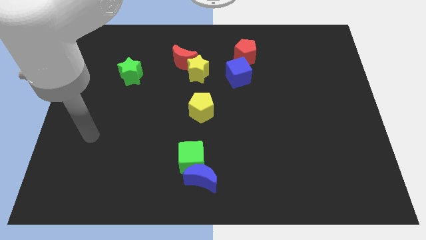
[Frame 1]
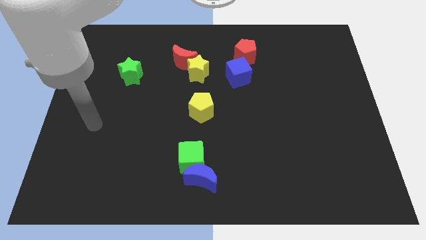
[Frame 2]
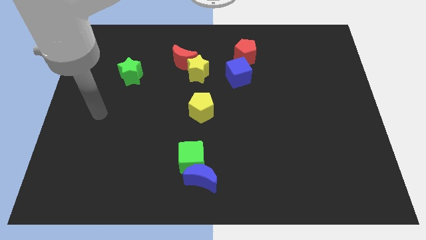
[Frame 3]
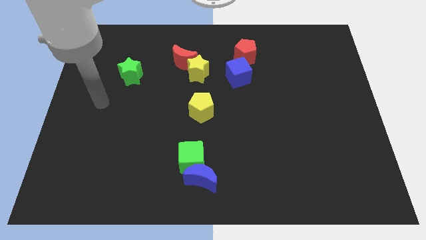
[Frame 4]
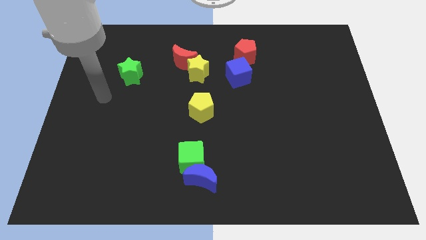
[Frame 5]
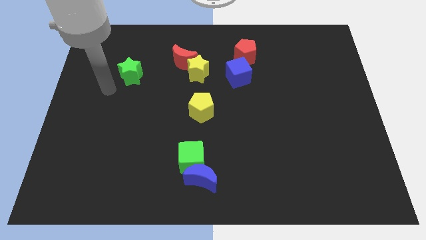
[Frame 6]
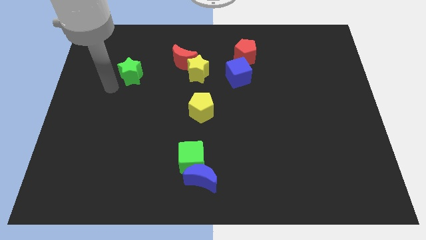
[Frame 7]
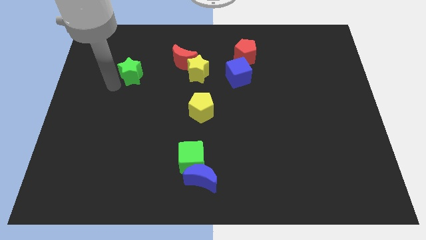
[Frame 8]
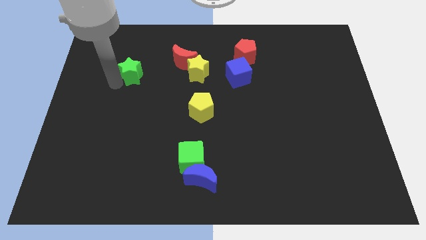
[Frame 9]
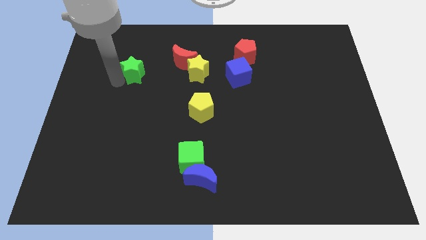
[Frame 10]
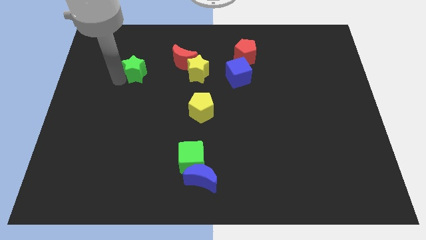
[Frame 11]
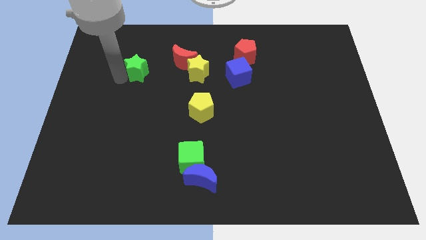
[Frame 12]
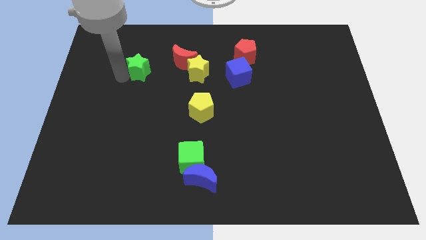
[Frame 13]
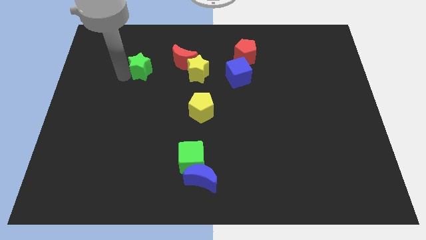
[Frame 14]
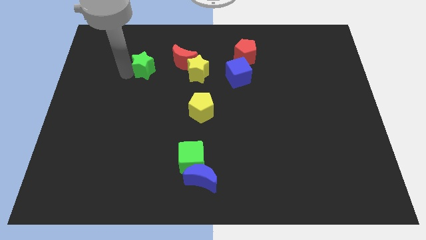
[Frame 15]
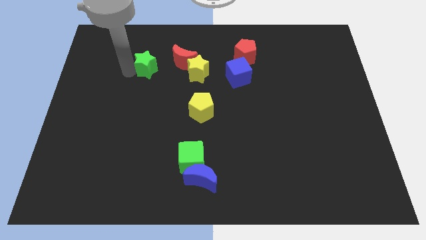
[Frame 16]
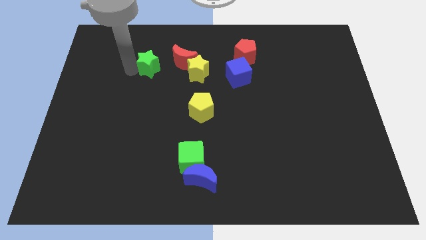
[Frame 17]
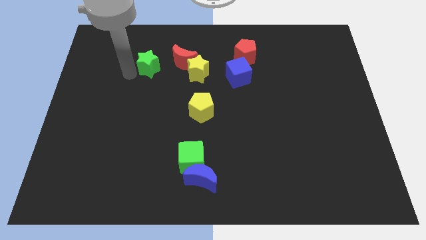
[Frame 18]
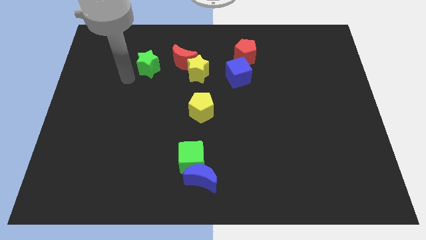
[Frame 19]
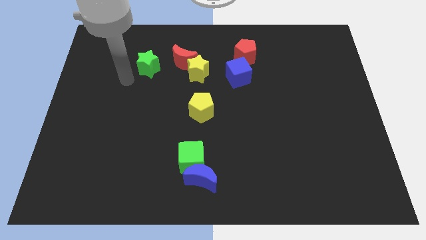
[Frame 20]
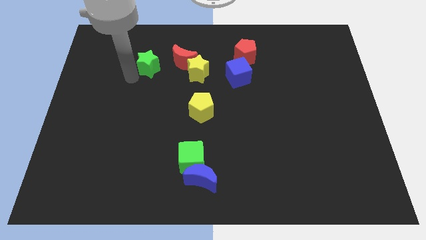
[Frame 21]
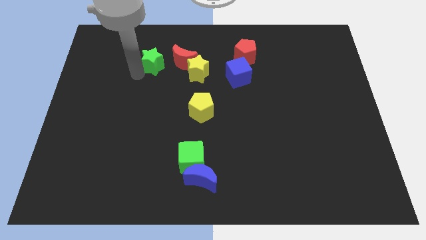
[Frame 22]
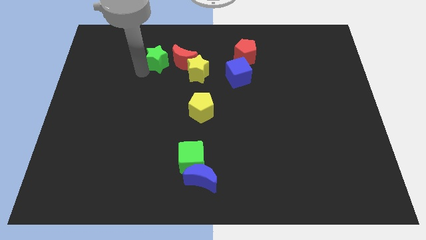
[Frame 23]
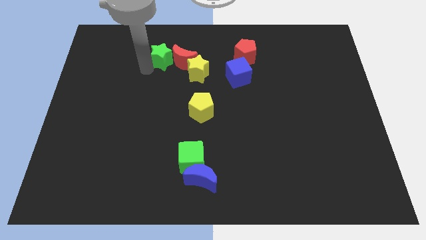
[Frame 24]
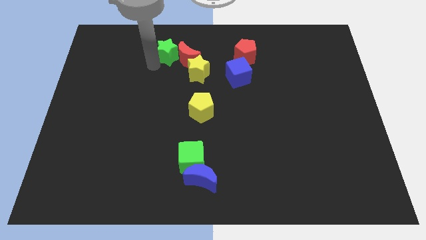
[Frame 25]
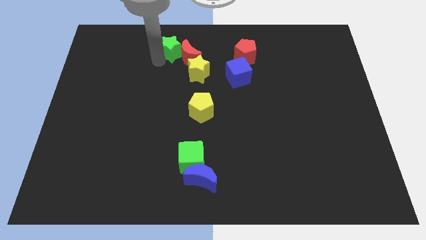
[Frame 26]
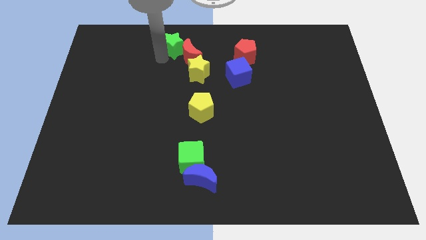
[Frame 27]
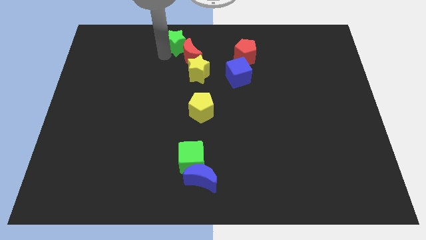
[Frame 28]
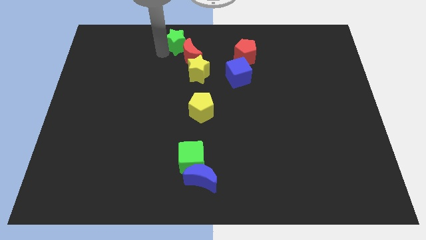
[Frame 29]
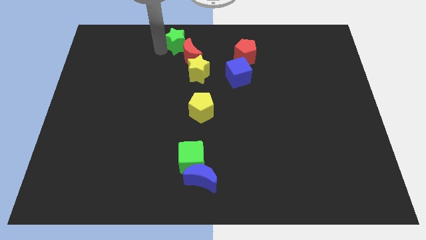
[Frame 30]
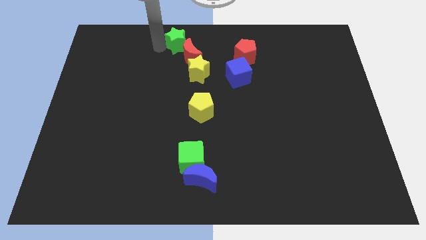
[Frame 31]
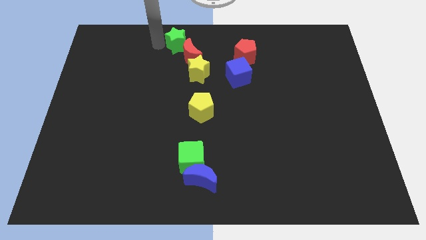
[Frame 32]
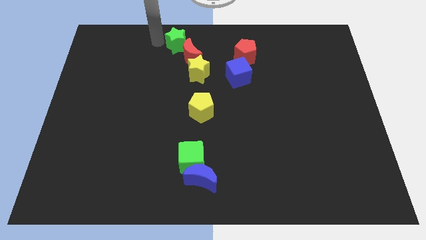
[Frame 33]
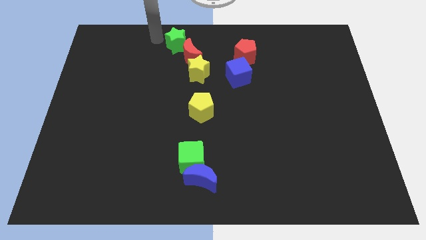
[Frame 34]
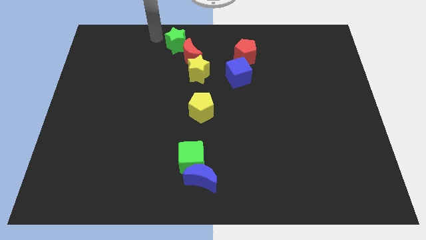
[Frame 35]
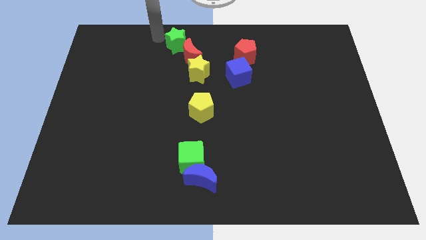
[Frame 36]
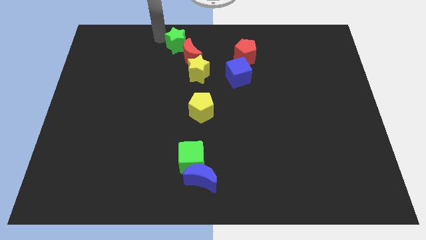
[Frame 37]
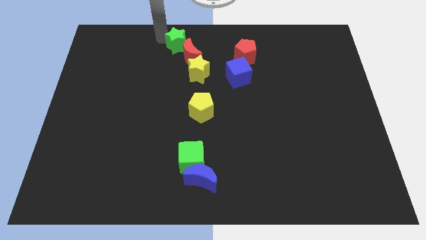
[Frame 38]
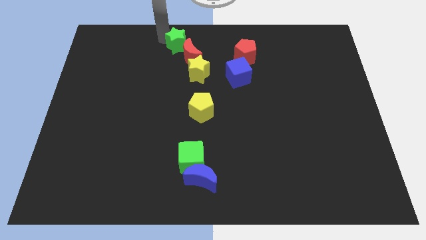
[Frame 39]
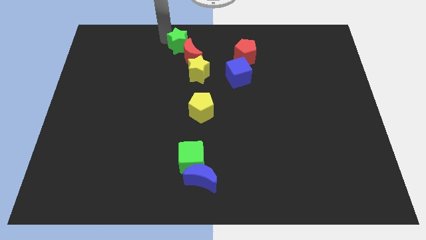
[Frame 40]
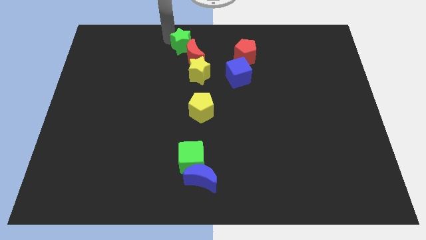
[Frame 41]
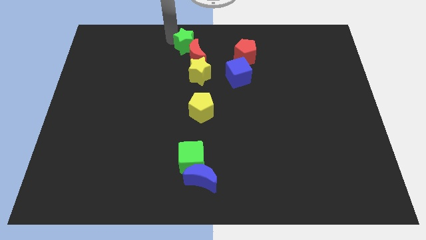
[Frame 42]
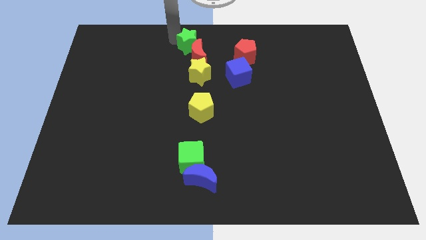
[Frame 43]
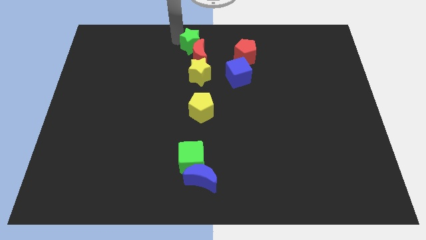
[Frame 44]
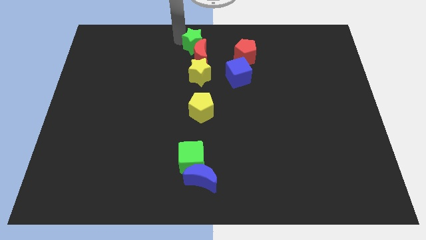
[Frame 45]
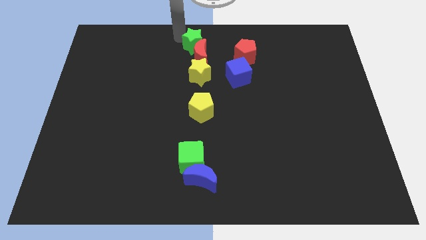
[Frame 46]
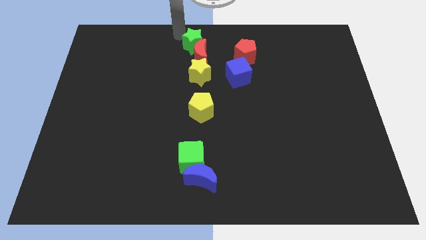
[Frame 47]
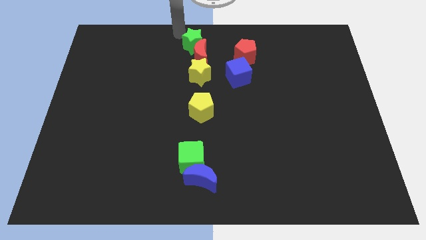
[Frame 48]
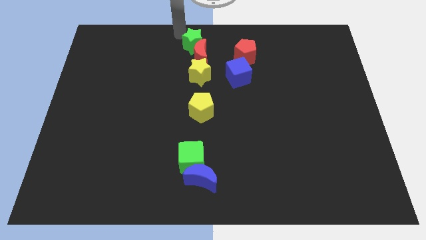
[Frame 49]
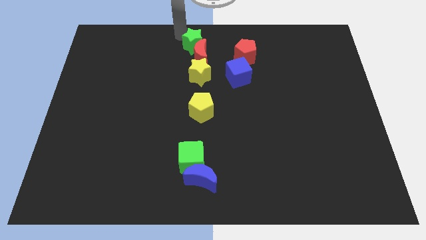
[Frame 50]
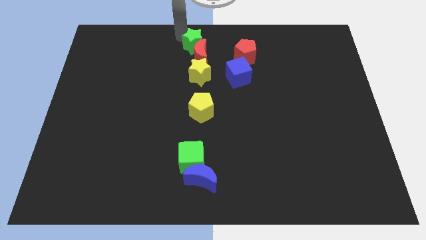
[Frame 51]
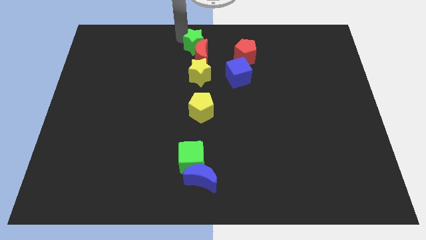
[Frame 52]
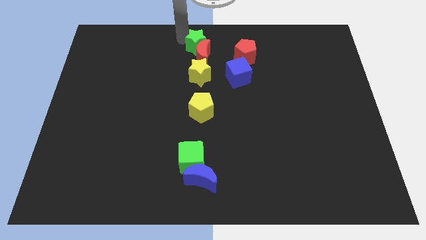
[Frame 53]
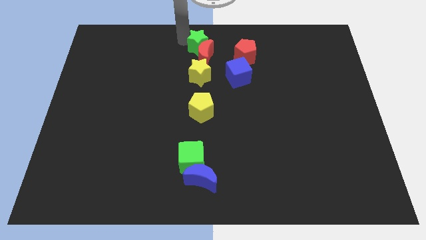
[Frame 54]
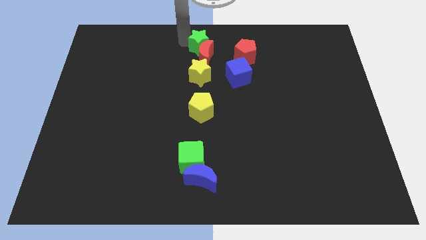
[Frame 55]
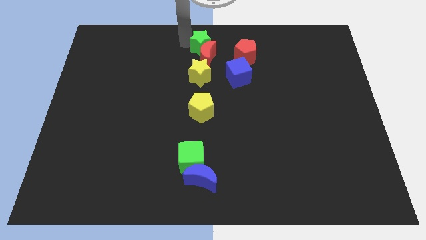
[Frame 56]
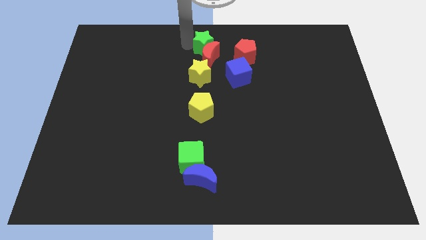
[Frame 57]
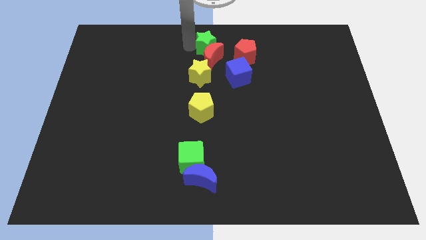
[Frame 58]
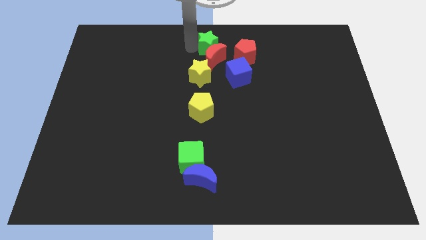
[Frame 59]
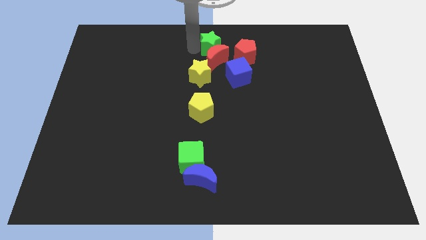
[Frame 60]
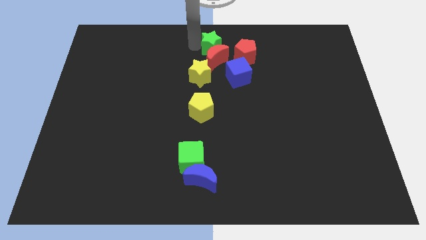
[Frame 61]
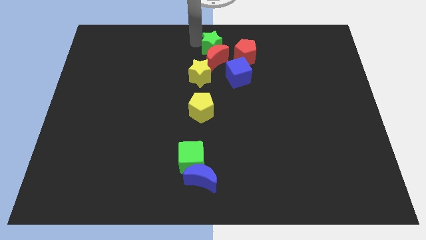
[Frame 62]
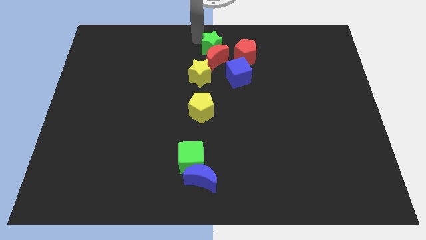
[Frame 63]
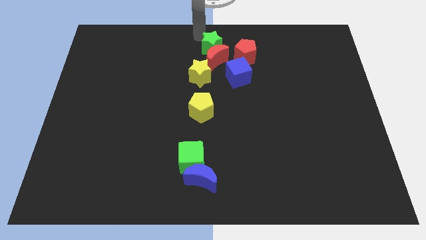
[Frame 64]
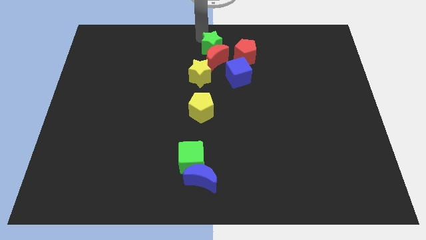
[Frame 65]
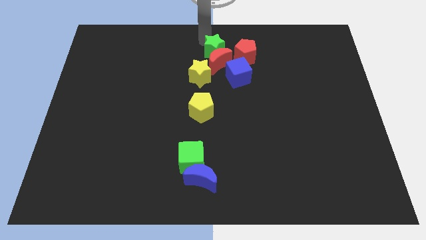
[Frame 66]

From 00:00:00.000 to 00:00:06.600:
move the green star to the top right side of the yellow star
